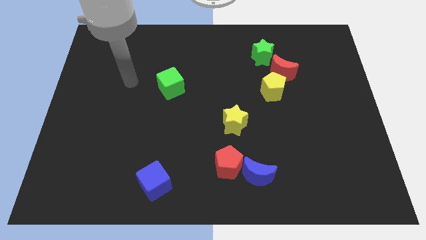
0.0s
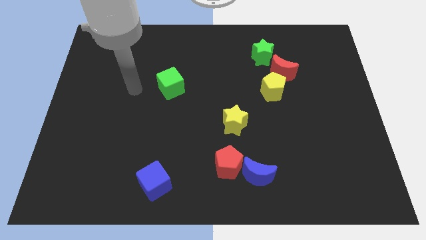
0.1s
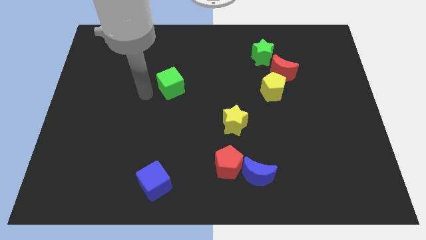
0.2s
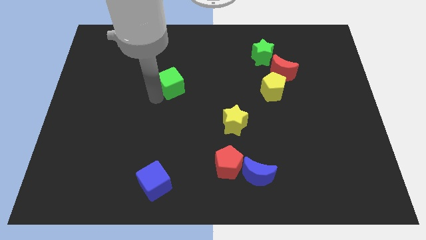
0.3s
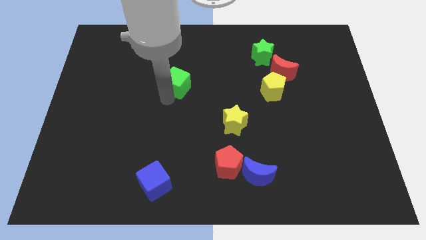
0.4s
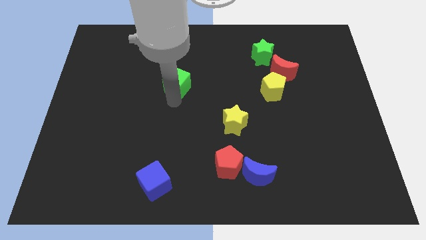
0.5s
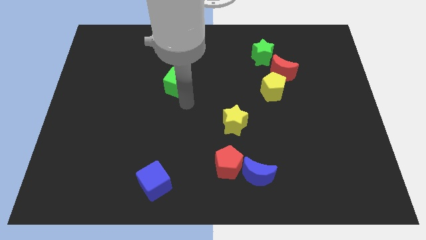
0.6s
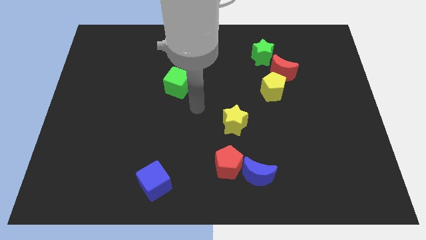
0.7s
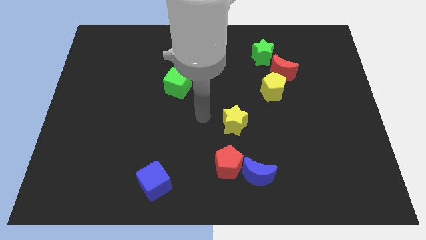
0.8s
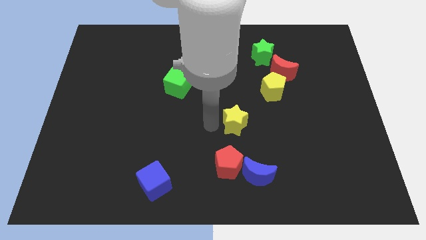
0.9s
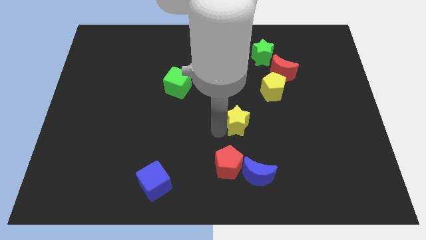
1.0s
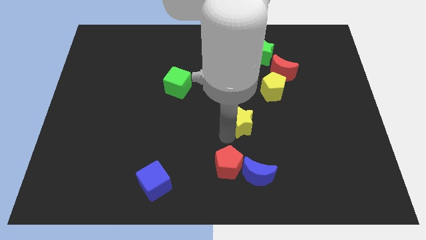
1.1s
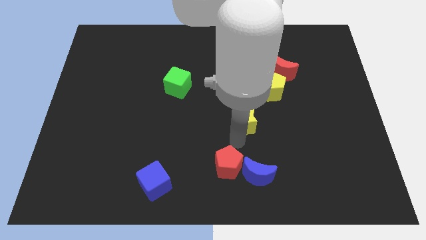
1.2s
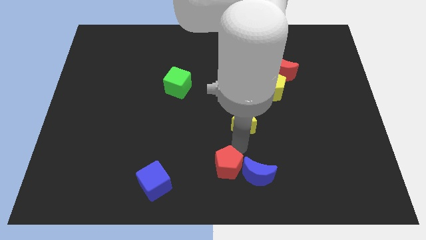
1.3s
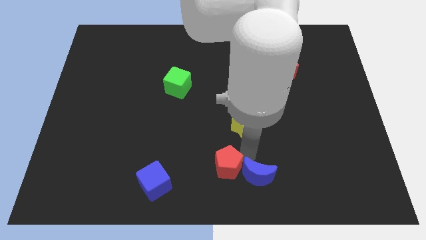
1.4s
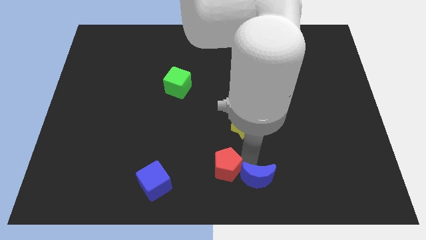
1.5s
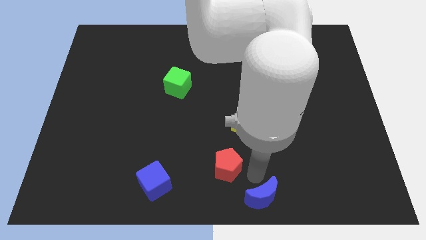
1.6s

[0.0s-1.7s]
pull the red pentagon apart from the blue moon

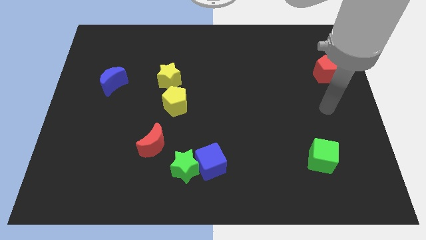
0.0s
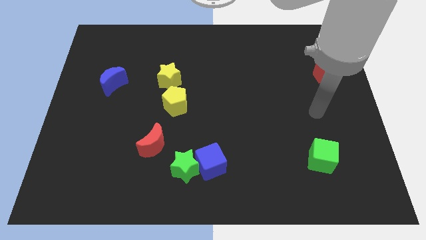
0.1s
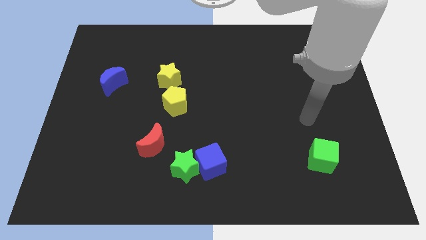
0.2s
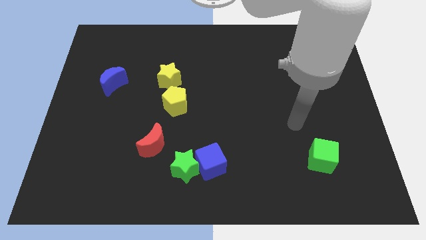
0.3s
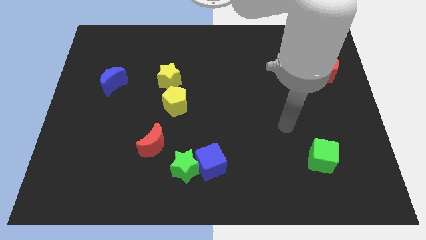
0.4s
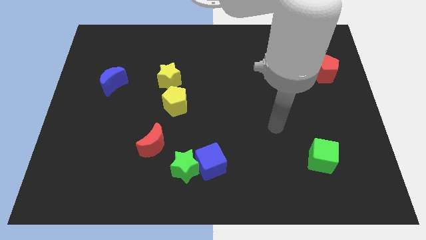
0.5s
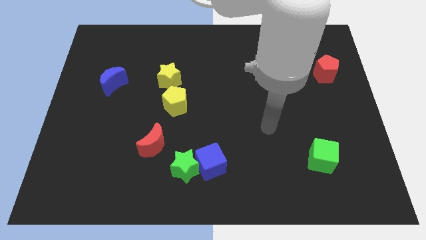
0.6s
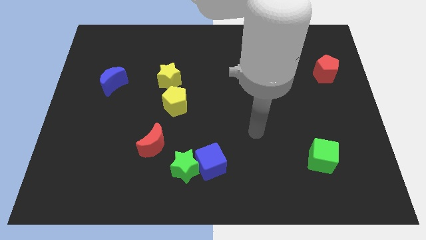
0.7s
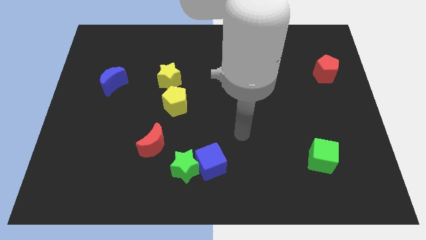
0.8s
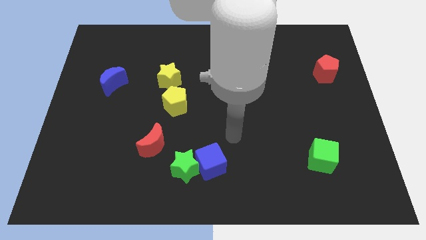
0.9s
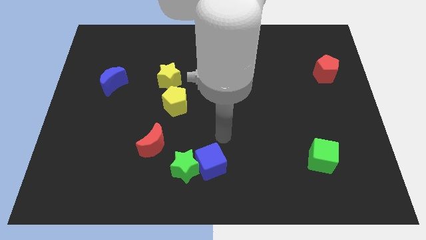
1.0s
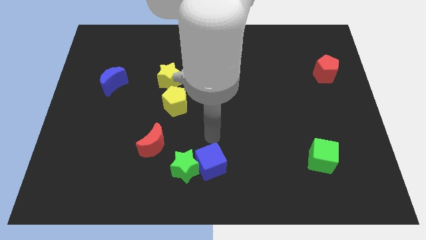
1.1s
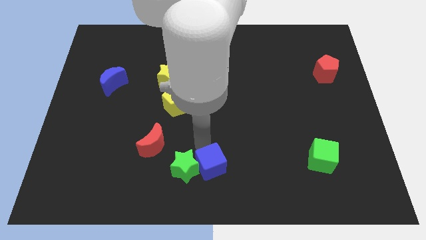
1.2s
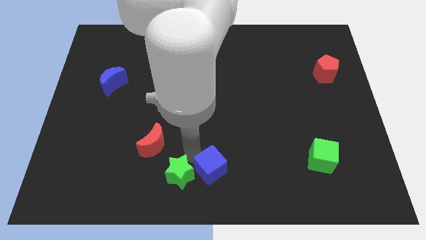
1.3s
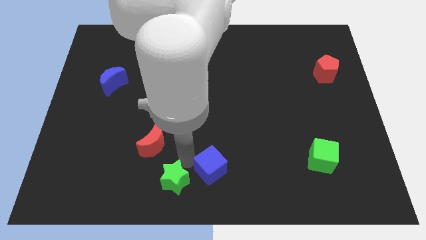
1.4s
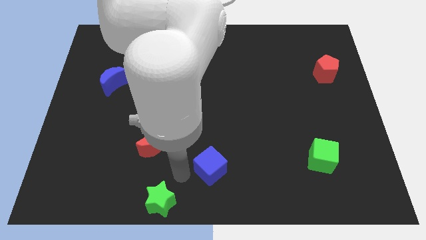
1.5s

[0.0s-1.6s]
pull the blue cube apart from the green star

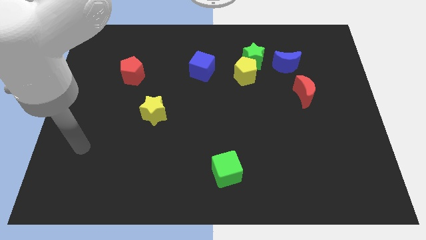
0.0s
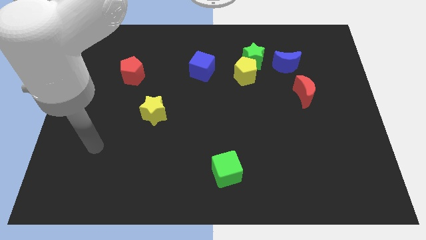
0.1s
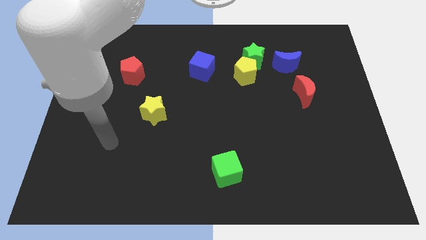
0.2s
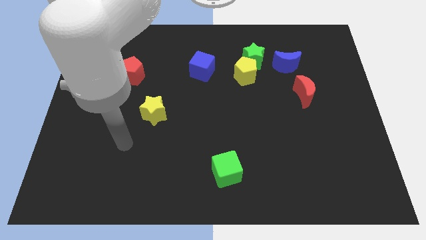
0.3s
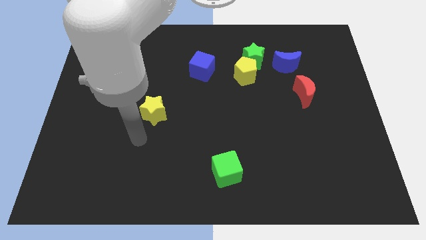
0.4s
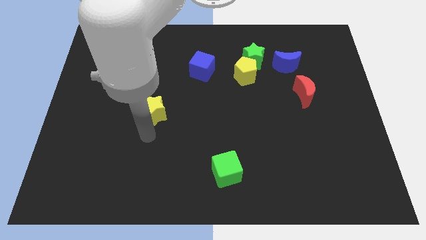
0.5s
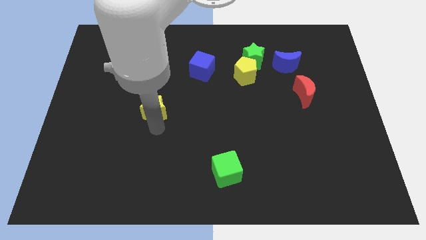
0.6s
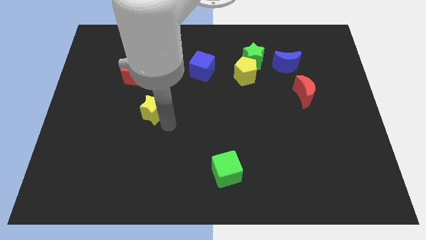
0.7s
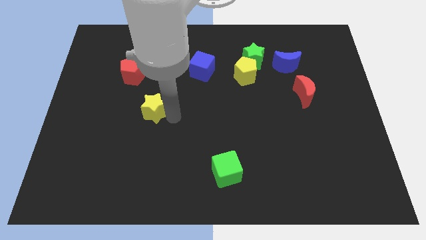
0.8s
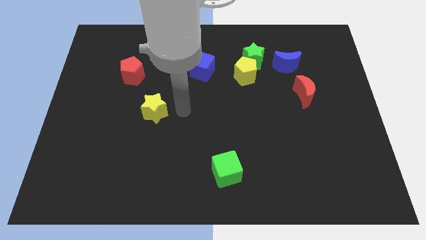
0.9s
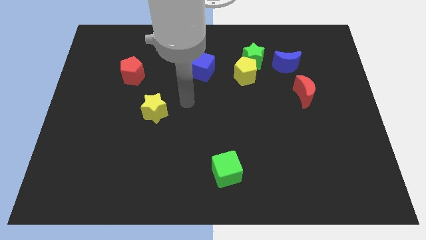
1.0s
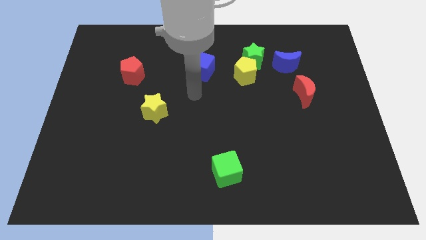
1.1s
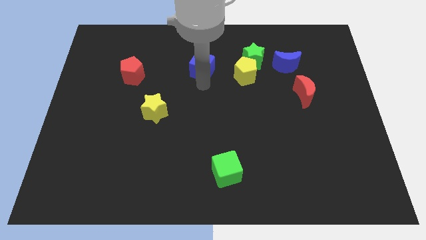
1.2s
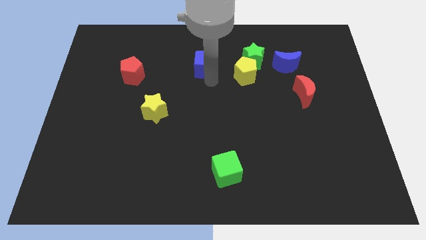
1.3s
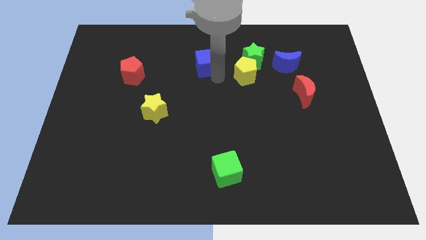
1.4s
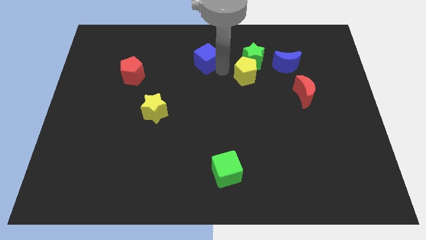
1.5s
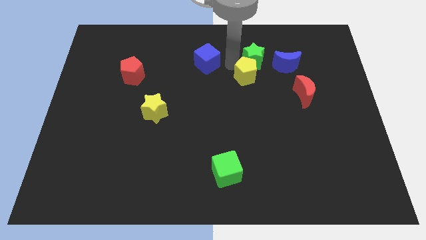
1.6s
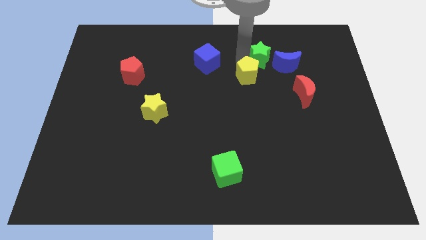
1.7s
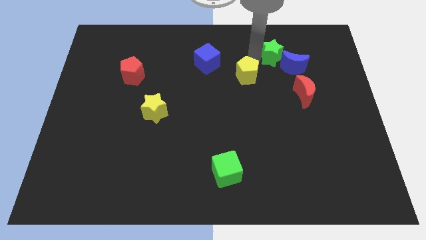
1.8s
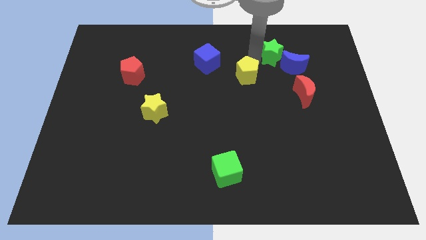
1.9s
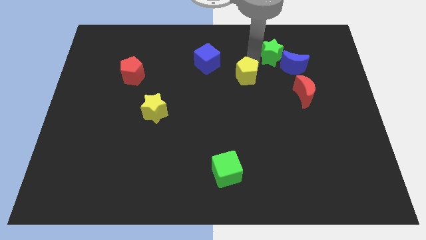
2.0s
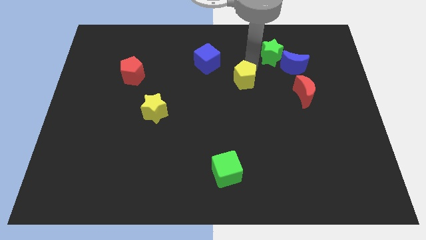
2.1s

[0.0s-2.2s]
pull the yellow pentagon apart from the green star

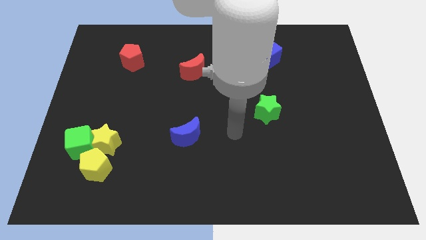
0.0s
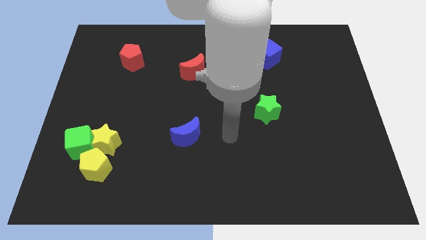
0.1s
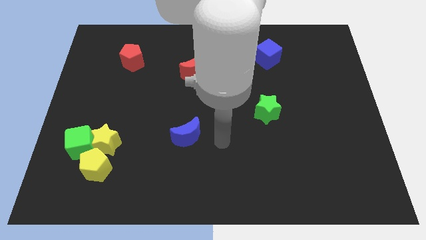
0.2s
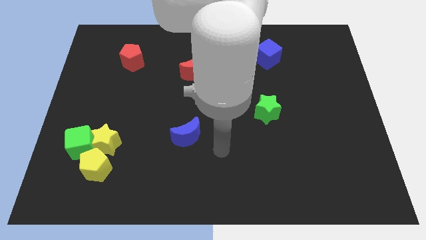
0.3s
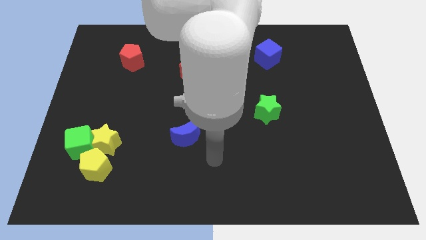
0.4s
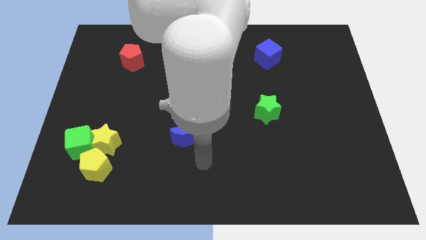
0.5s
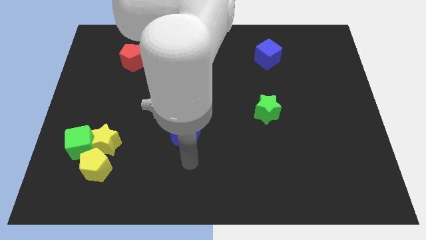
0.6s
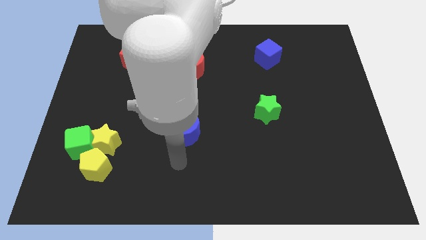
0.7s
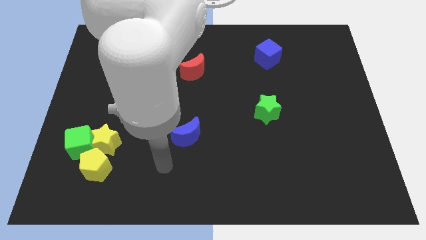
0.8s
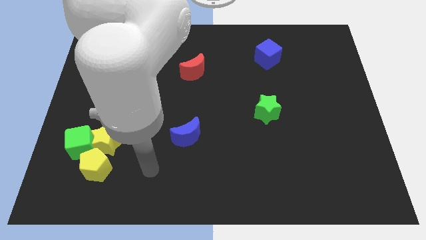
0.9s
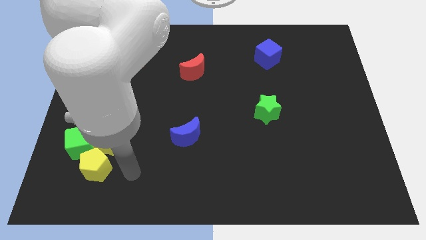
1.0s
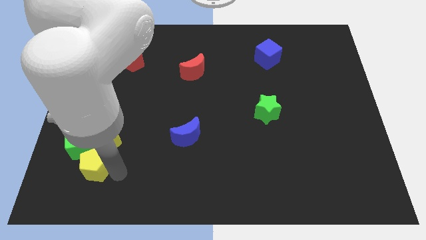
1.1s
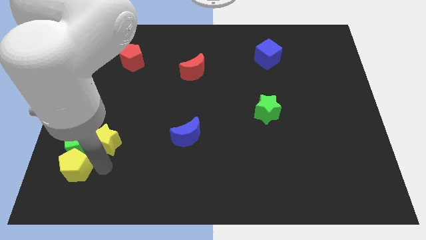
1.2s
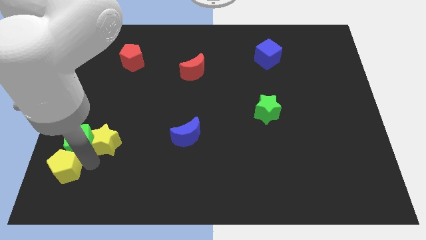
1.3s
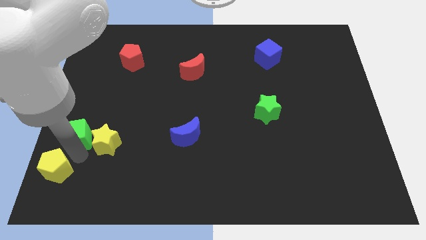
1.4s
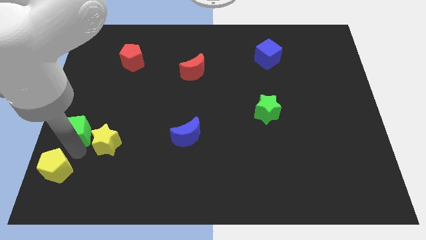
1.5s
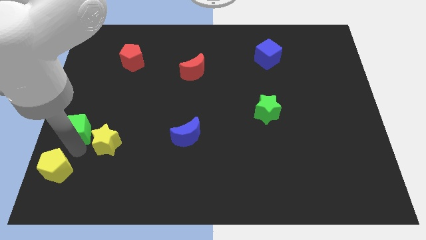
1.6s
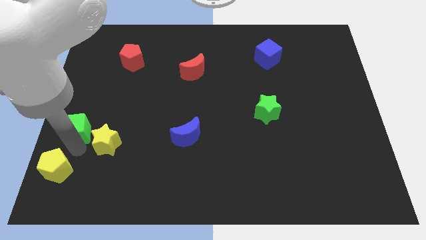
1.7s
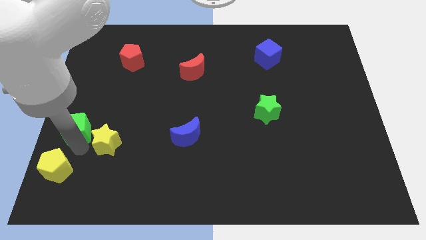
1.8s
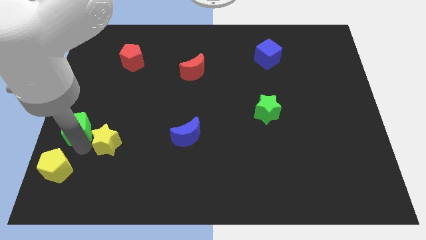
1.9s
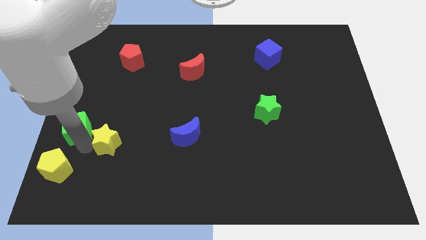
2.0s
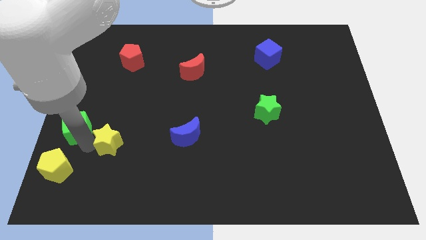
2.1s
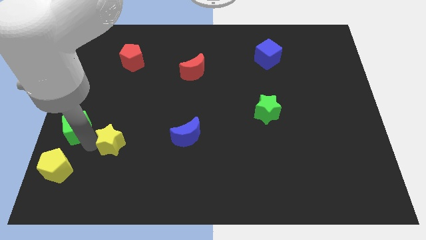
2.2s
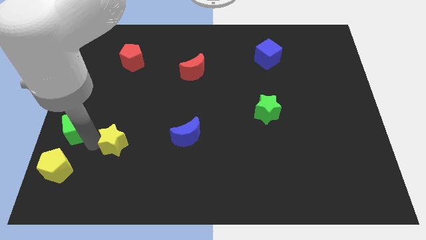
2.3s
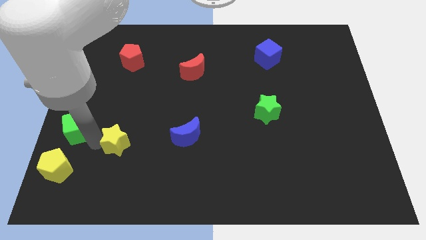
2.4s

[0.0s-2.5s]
move the yellow star away from the green cube and yellow pentagon

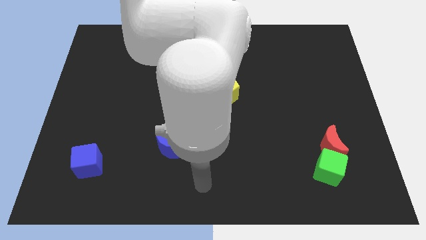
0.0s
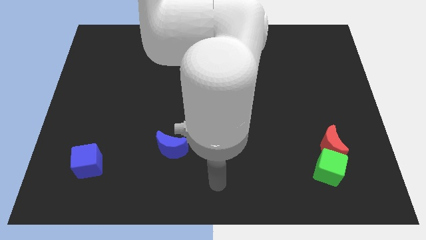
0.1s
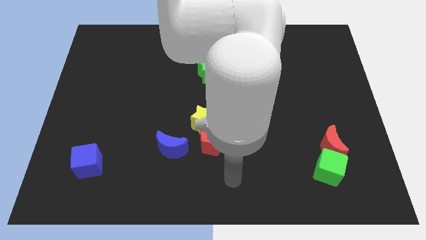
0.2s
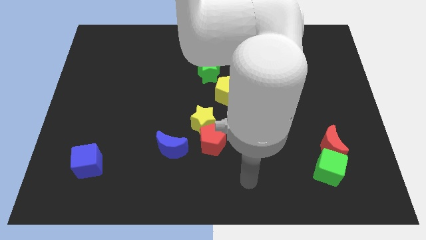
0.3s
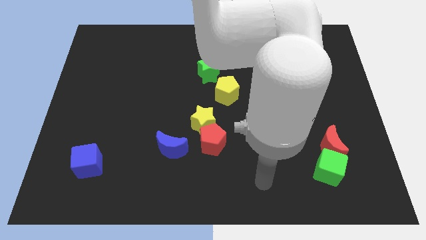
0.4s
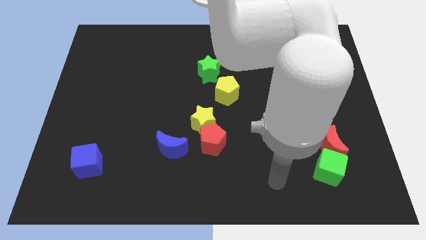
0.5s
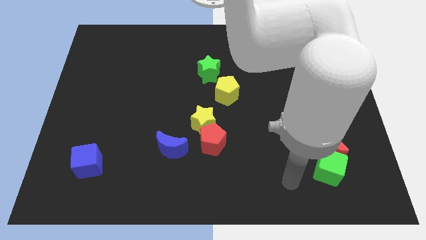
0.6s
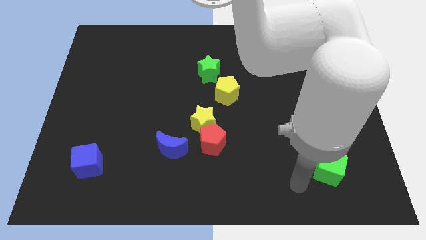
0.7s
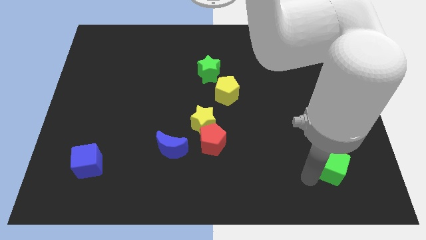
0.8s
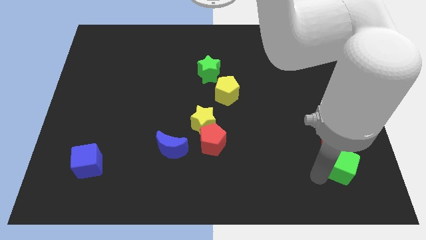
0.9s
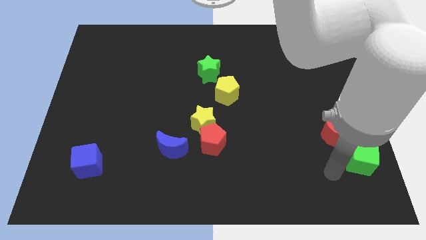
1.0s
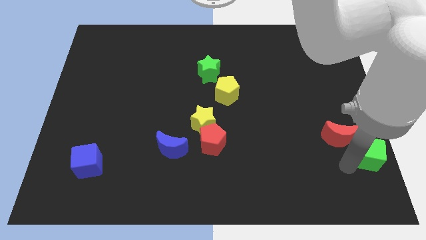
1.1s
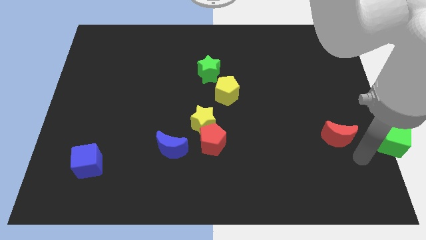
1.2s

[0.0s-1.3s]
pull the red moon apart from the green cube
